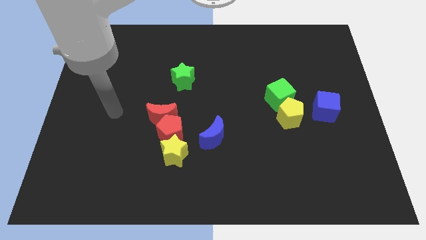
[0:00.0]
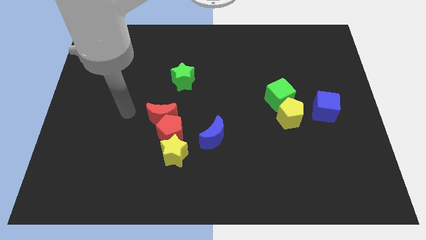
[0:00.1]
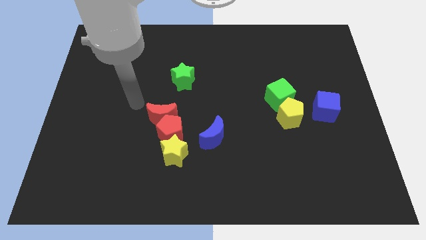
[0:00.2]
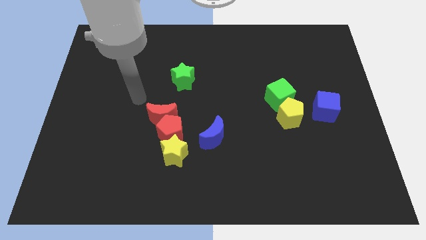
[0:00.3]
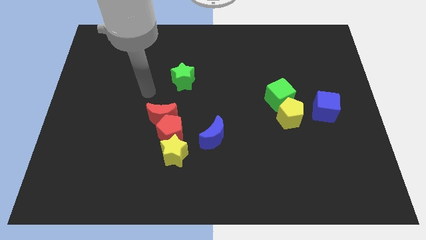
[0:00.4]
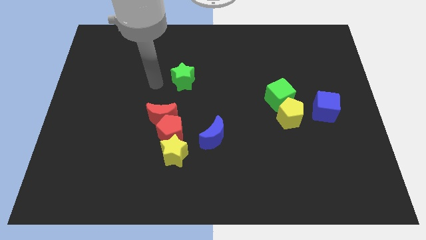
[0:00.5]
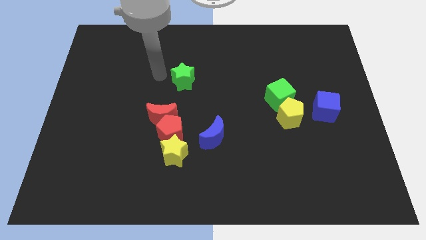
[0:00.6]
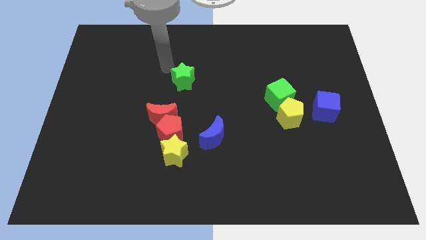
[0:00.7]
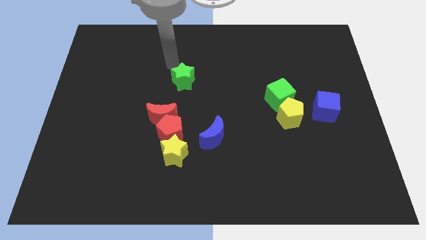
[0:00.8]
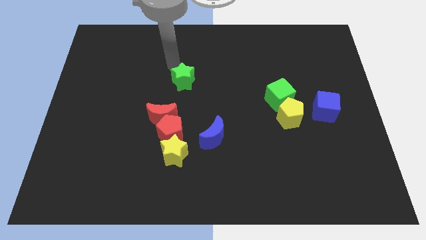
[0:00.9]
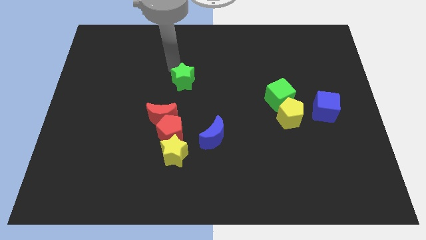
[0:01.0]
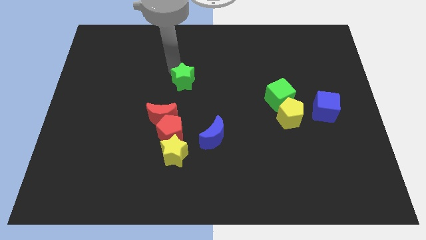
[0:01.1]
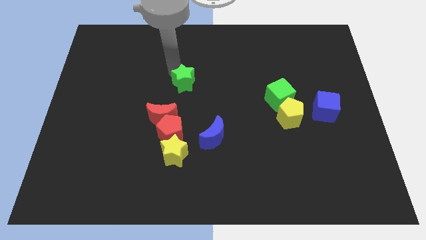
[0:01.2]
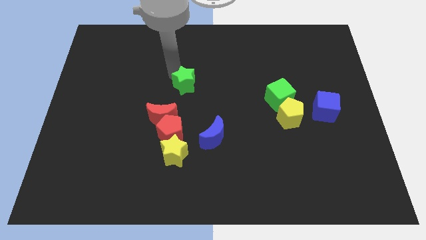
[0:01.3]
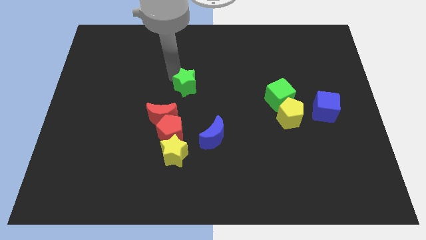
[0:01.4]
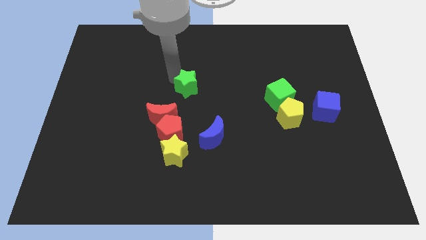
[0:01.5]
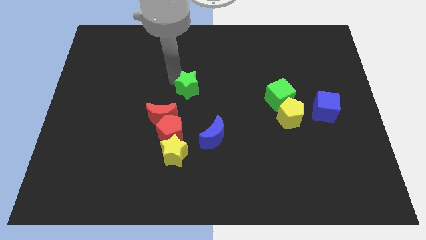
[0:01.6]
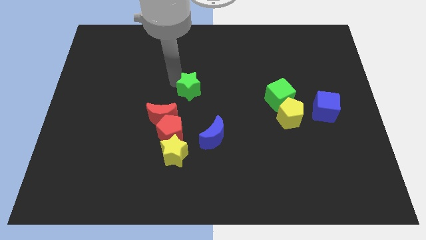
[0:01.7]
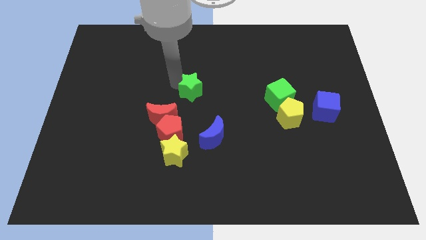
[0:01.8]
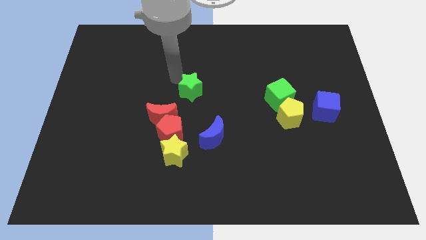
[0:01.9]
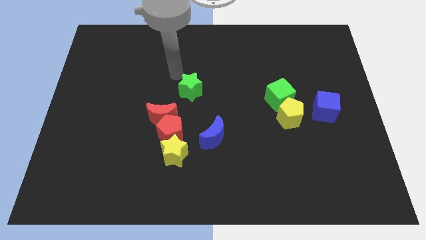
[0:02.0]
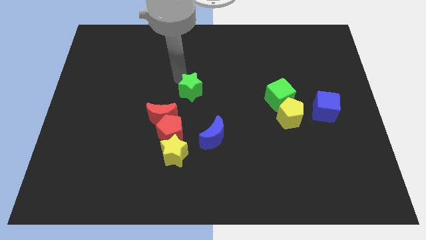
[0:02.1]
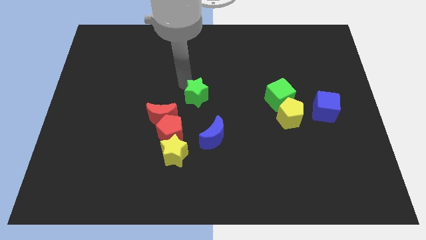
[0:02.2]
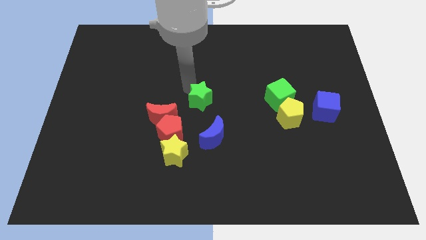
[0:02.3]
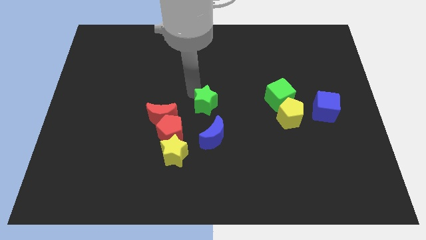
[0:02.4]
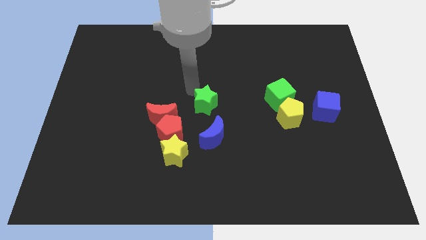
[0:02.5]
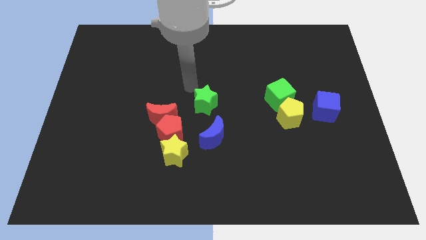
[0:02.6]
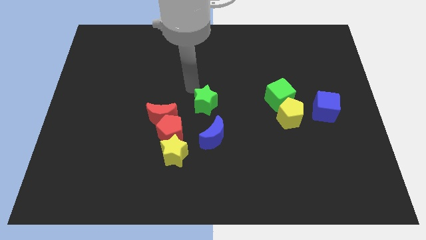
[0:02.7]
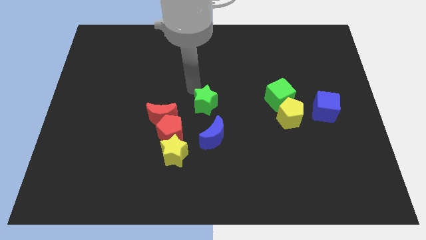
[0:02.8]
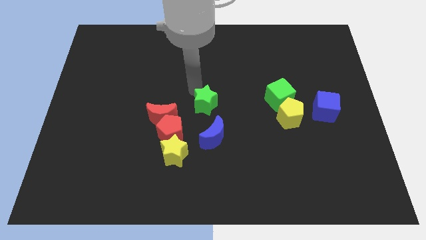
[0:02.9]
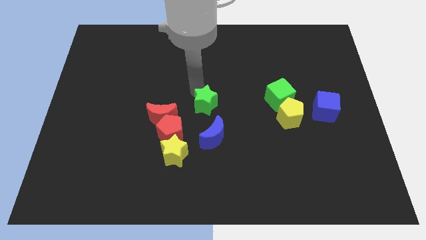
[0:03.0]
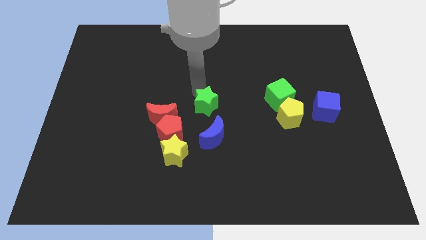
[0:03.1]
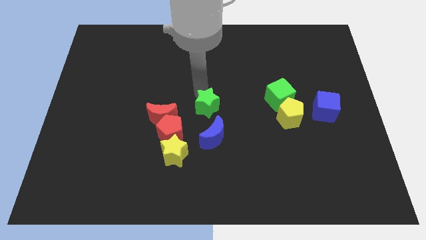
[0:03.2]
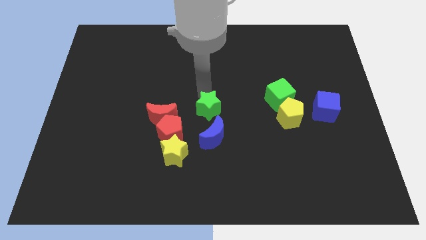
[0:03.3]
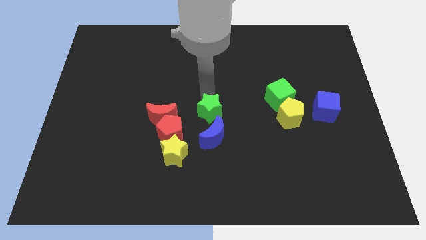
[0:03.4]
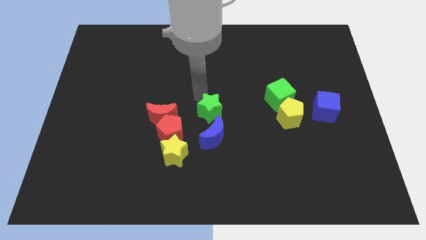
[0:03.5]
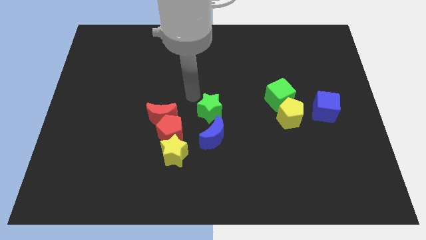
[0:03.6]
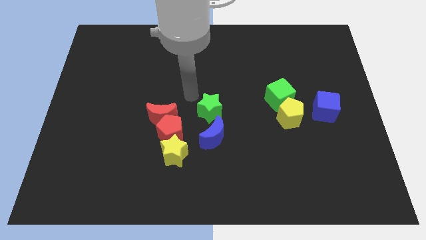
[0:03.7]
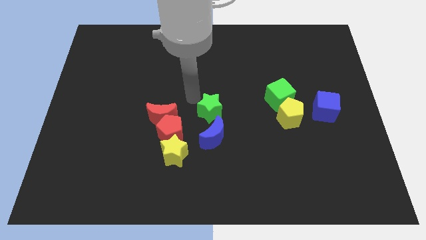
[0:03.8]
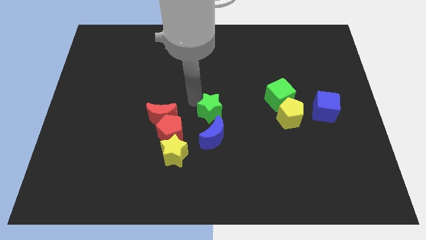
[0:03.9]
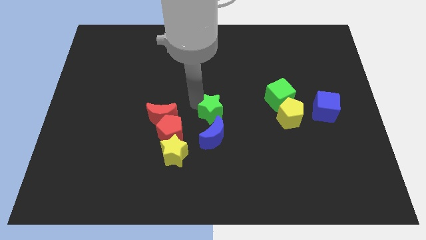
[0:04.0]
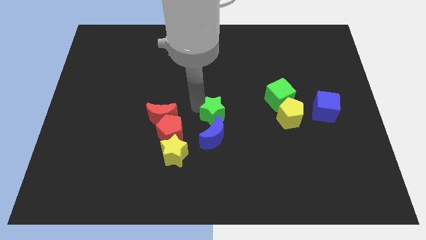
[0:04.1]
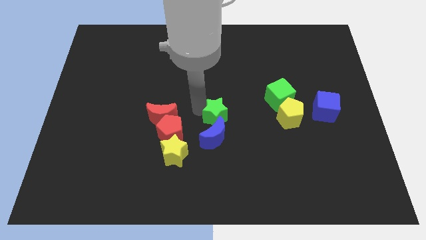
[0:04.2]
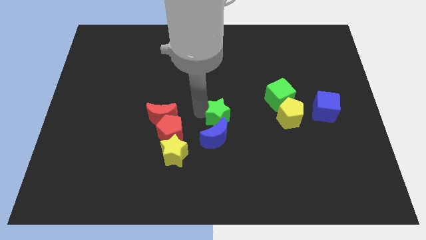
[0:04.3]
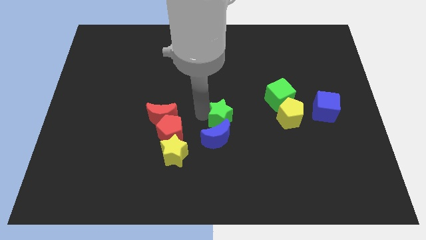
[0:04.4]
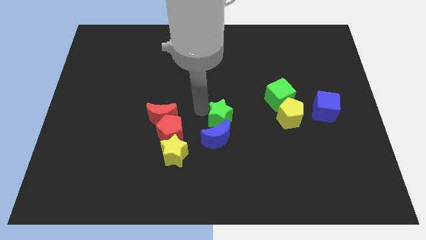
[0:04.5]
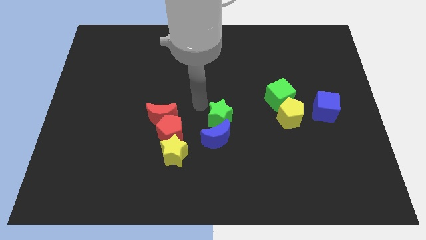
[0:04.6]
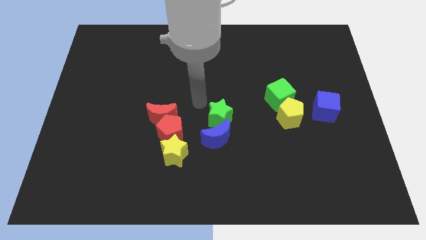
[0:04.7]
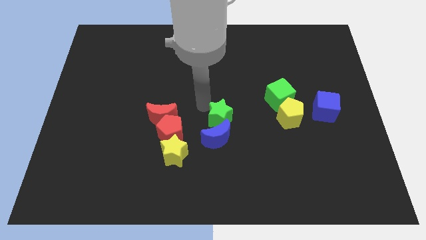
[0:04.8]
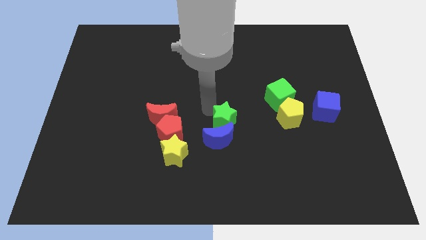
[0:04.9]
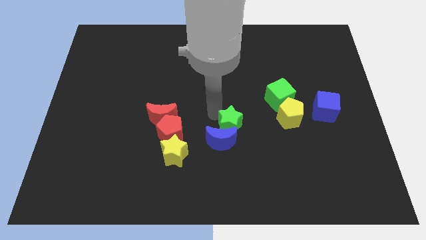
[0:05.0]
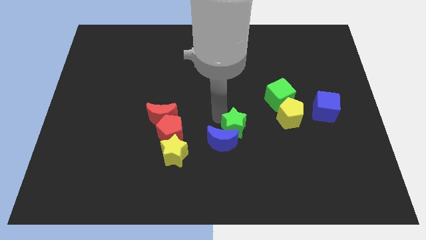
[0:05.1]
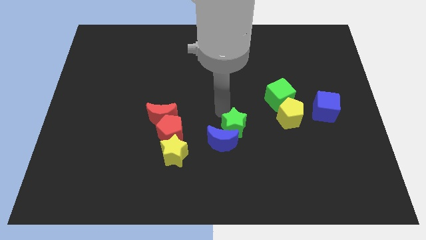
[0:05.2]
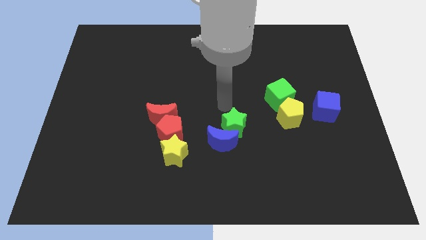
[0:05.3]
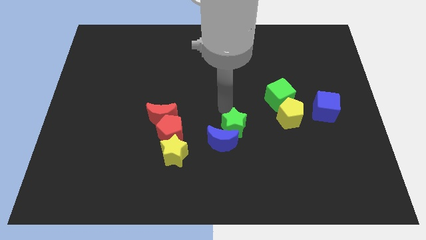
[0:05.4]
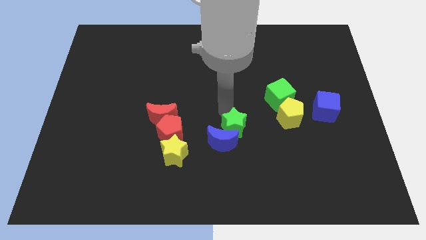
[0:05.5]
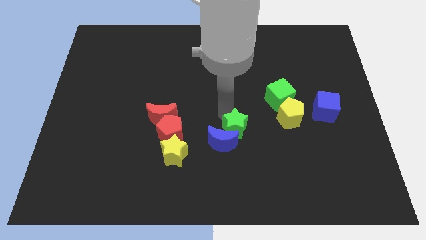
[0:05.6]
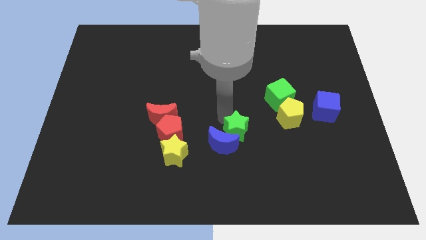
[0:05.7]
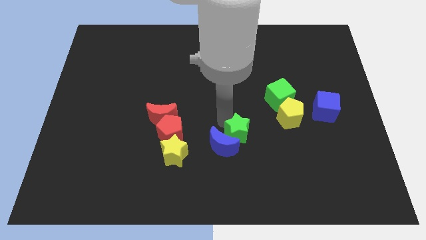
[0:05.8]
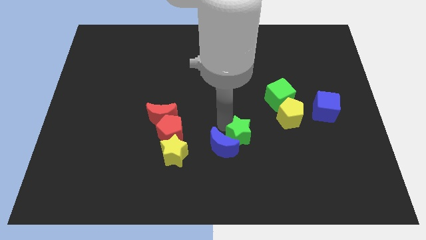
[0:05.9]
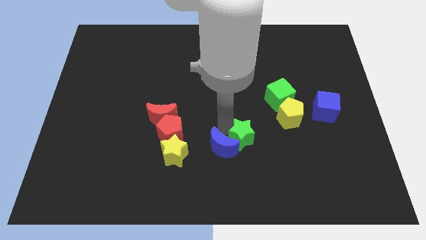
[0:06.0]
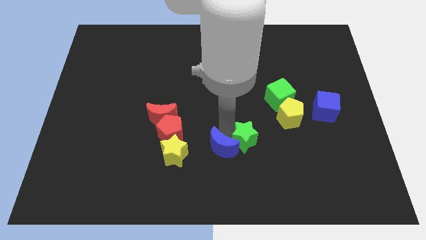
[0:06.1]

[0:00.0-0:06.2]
put the green star to the bottom right side of the blue moon
